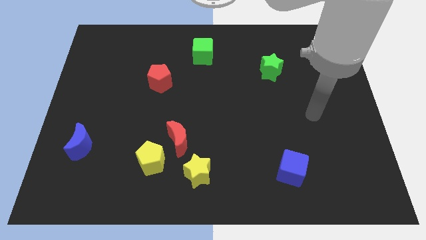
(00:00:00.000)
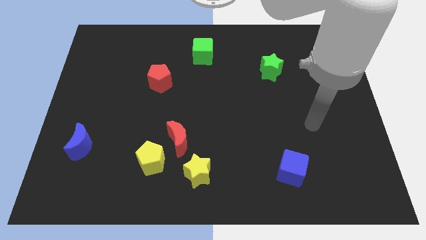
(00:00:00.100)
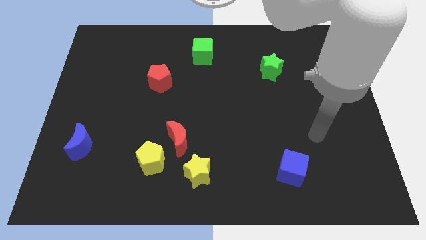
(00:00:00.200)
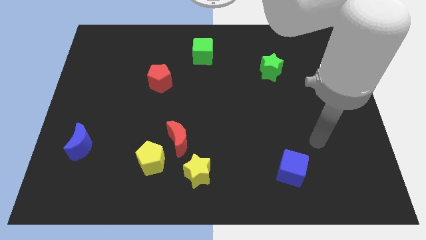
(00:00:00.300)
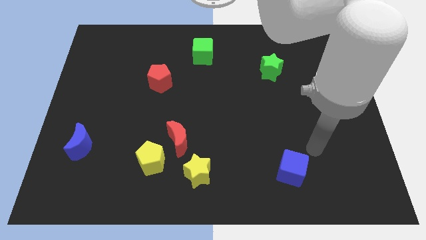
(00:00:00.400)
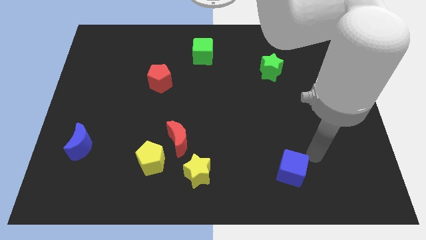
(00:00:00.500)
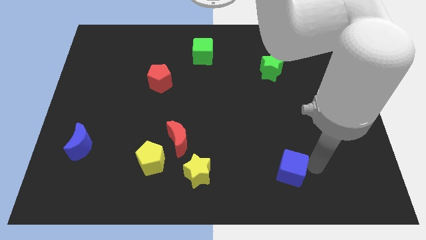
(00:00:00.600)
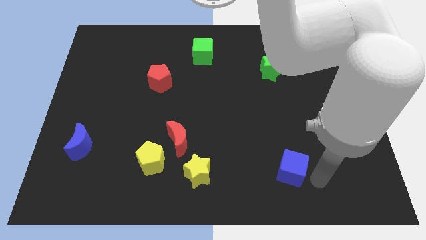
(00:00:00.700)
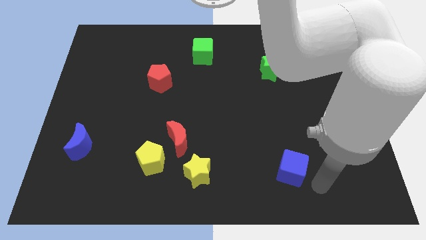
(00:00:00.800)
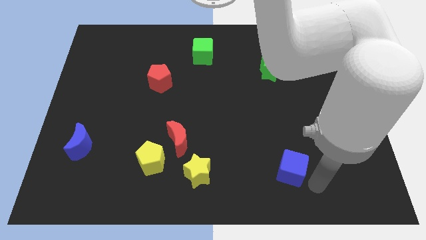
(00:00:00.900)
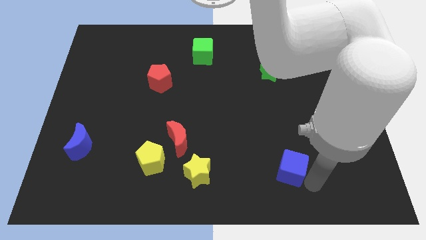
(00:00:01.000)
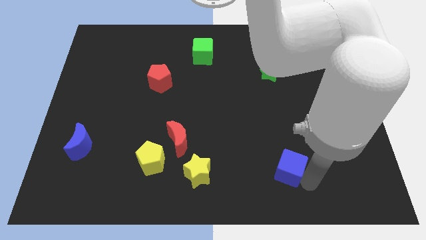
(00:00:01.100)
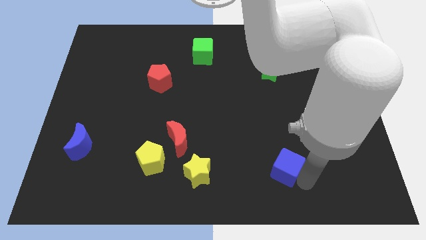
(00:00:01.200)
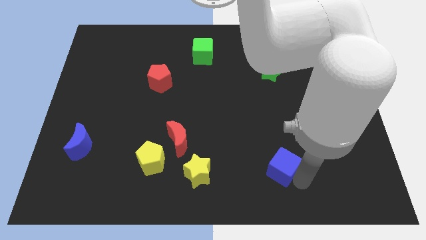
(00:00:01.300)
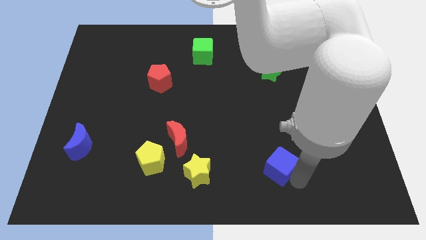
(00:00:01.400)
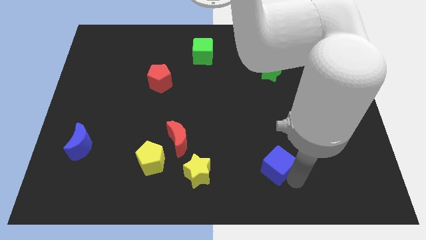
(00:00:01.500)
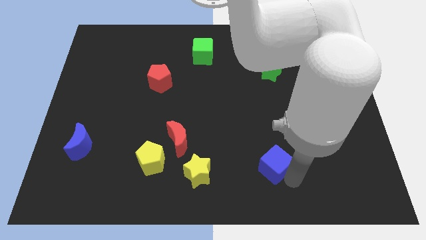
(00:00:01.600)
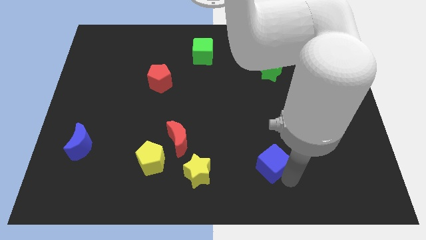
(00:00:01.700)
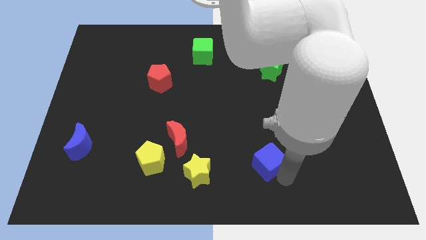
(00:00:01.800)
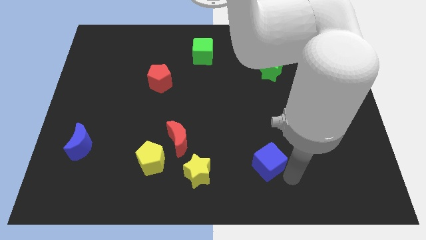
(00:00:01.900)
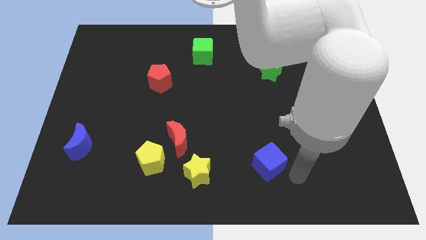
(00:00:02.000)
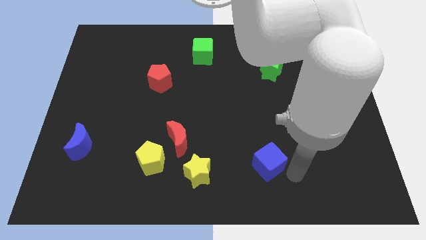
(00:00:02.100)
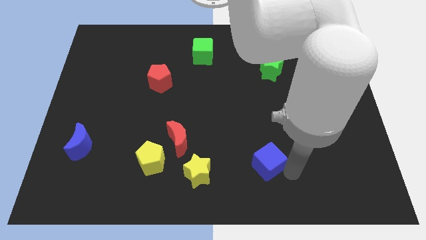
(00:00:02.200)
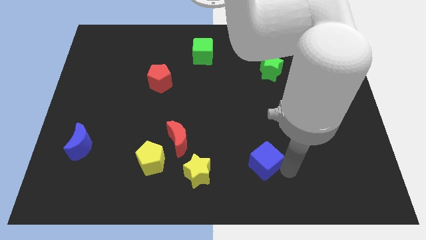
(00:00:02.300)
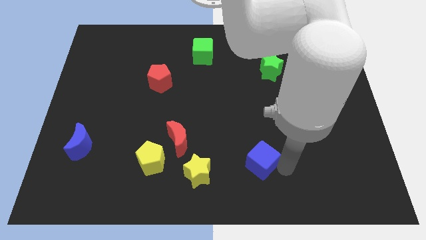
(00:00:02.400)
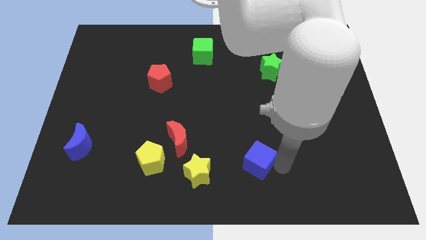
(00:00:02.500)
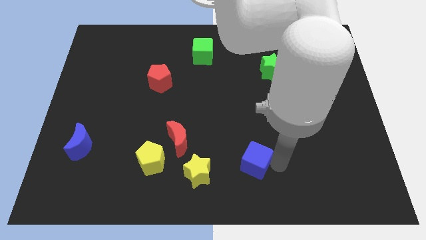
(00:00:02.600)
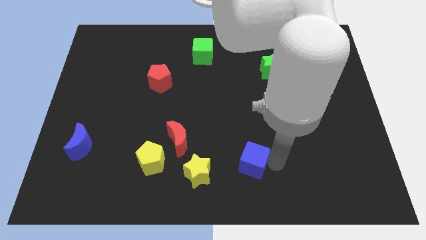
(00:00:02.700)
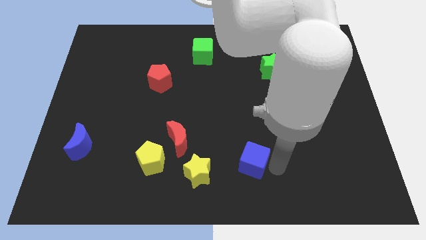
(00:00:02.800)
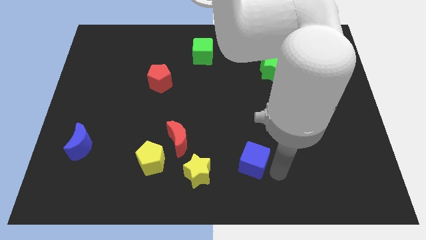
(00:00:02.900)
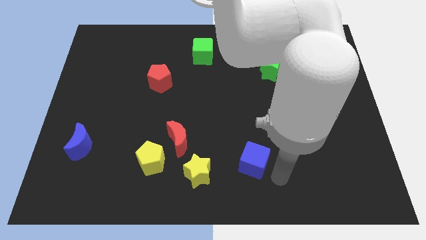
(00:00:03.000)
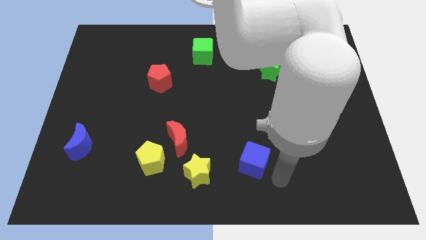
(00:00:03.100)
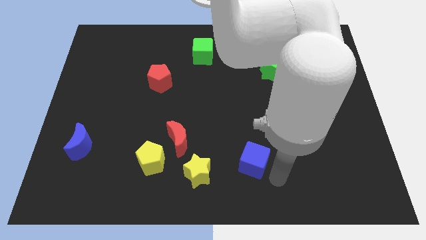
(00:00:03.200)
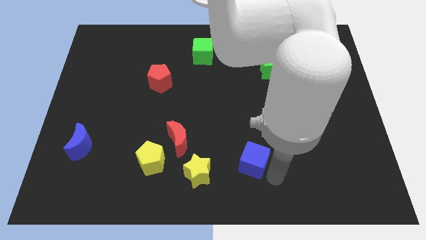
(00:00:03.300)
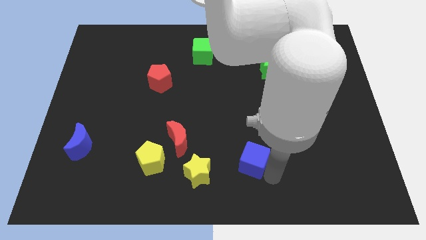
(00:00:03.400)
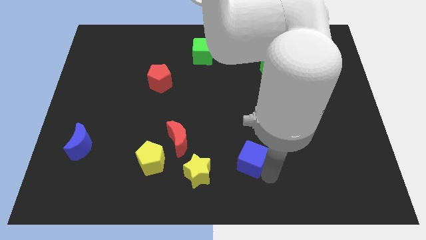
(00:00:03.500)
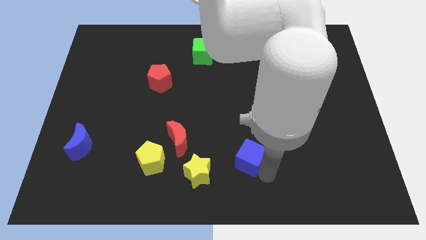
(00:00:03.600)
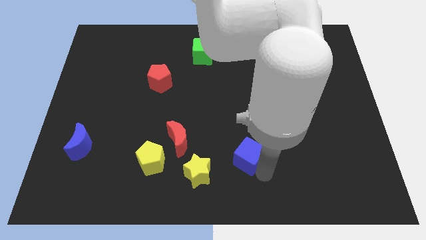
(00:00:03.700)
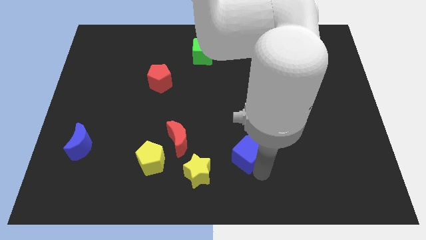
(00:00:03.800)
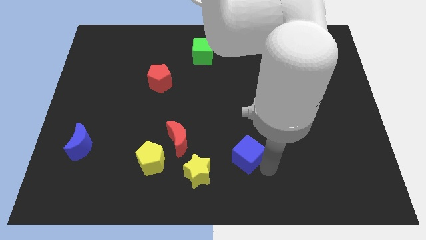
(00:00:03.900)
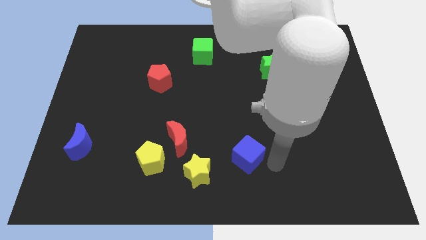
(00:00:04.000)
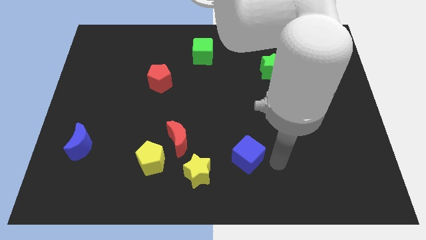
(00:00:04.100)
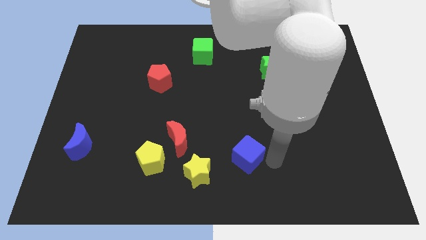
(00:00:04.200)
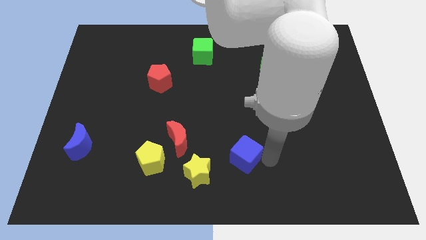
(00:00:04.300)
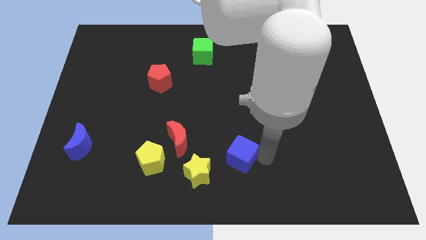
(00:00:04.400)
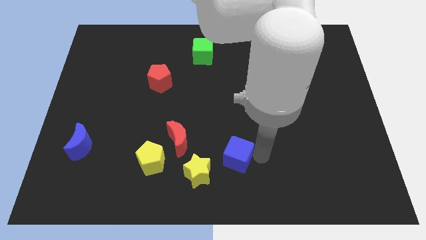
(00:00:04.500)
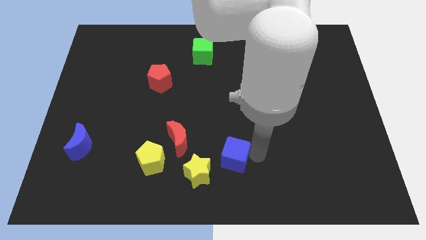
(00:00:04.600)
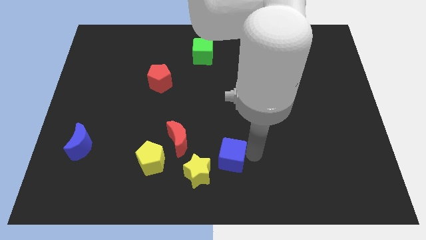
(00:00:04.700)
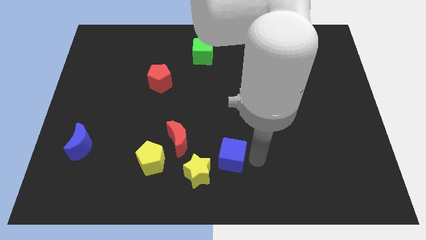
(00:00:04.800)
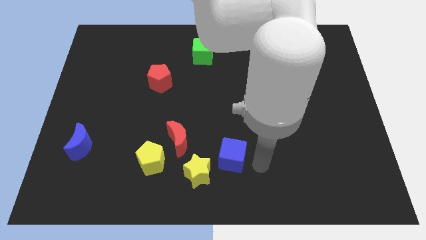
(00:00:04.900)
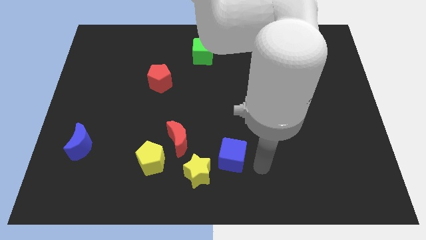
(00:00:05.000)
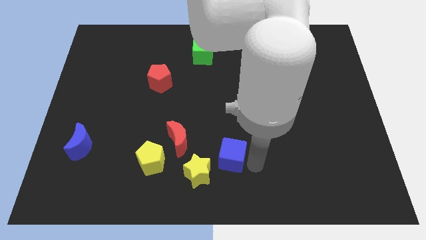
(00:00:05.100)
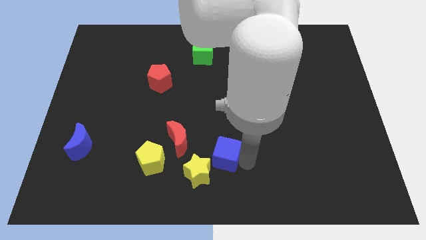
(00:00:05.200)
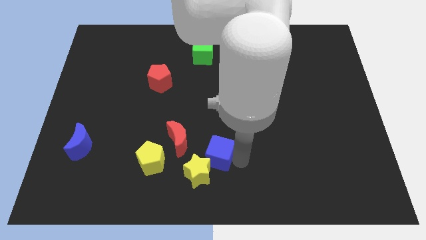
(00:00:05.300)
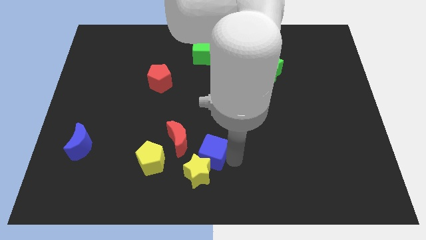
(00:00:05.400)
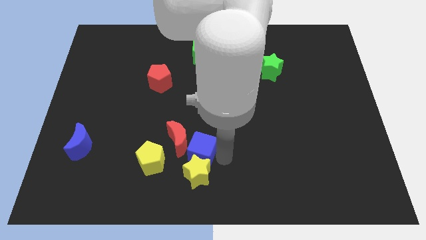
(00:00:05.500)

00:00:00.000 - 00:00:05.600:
move the blue cube to the red moon
